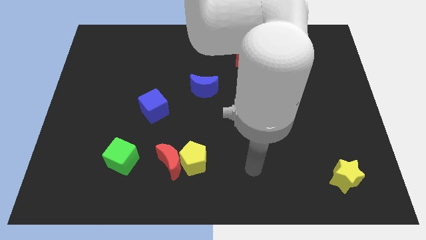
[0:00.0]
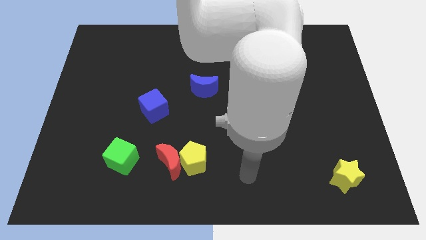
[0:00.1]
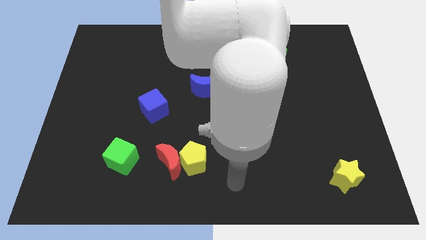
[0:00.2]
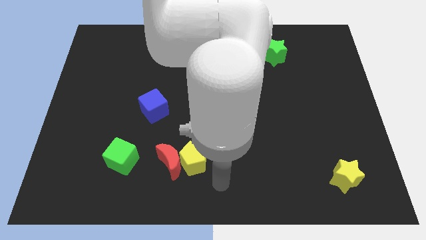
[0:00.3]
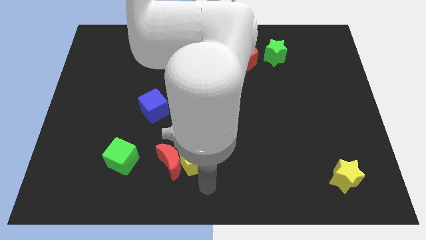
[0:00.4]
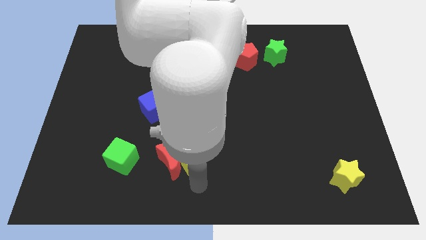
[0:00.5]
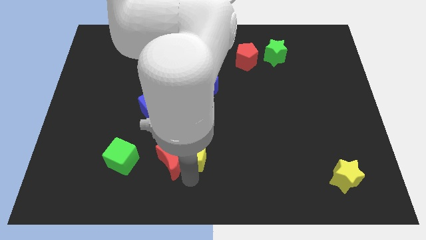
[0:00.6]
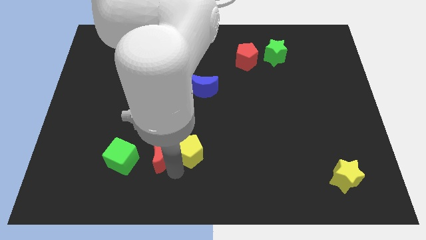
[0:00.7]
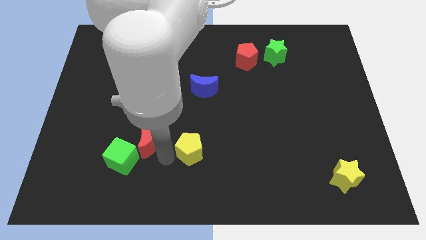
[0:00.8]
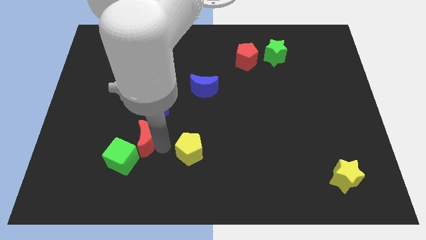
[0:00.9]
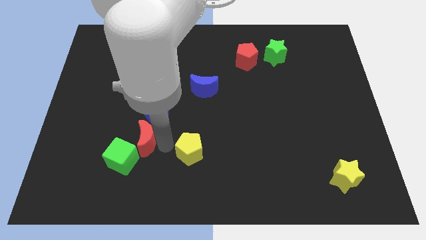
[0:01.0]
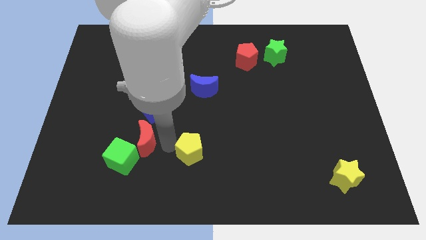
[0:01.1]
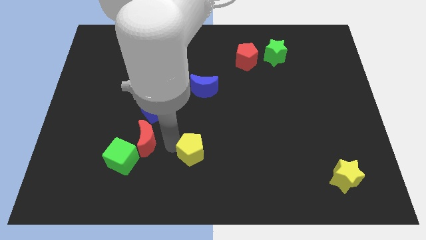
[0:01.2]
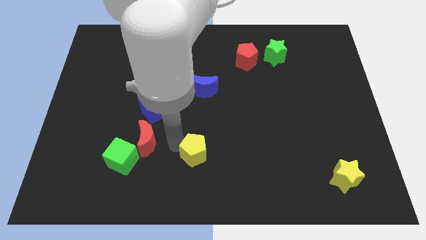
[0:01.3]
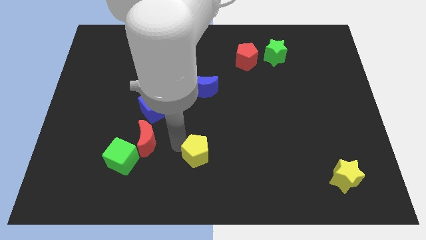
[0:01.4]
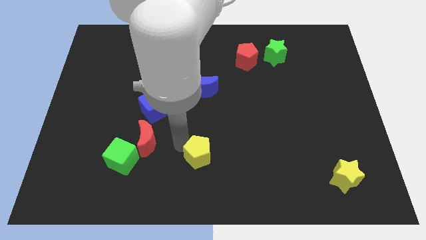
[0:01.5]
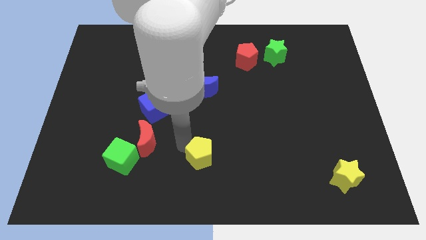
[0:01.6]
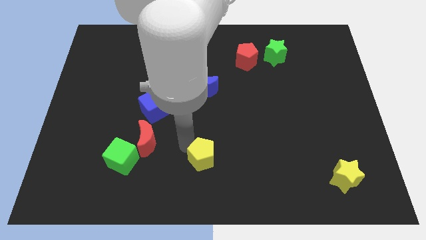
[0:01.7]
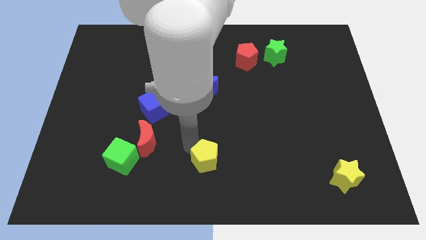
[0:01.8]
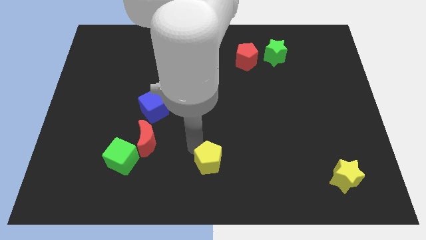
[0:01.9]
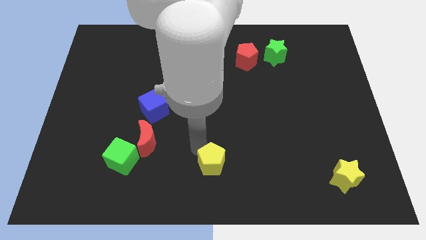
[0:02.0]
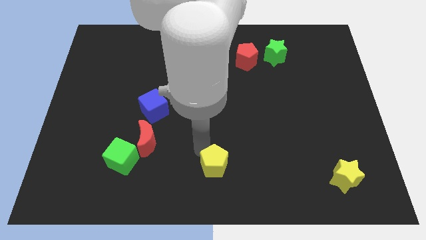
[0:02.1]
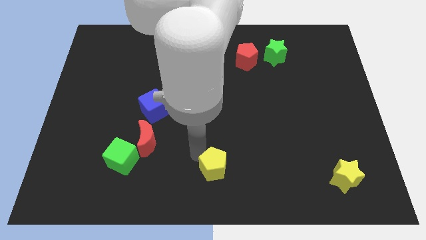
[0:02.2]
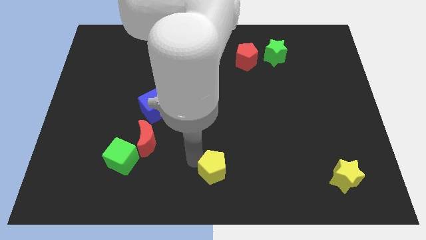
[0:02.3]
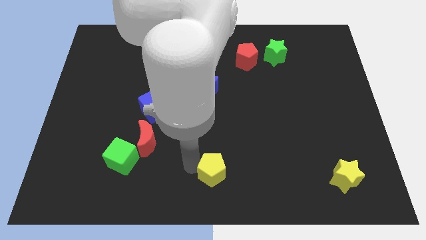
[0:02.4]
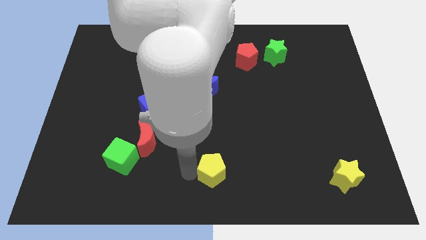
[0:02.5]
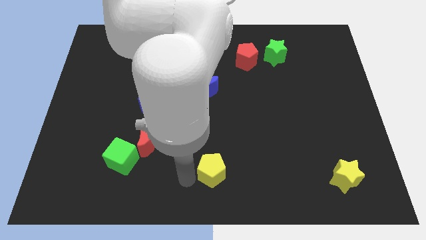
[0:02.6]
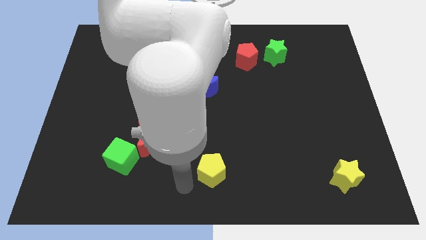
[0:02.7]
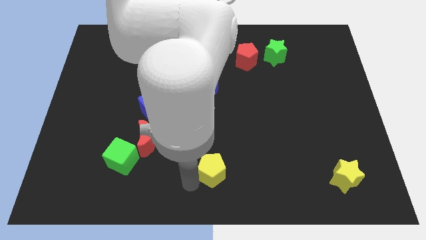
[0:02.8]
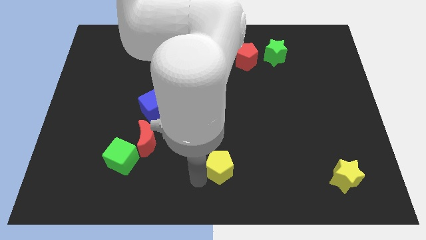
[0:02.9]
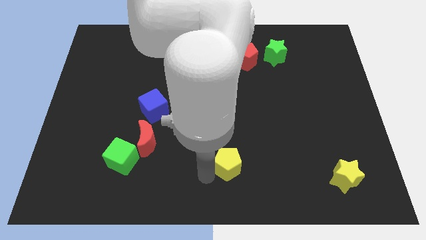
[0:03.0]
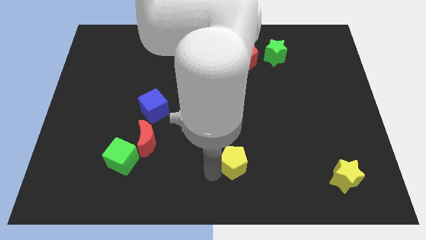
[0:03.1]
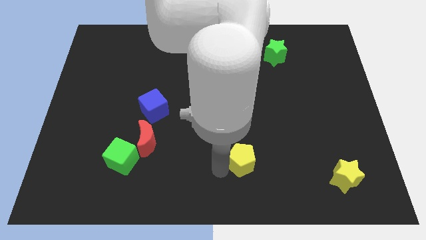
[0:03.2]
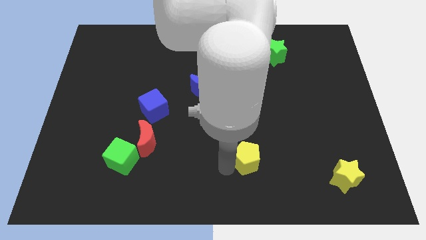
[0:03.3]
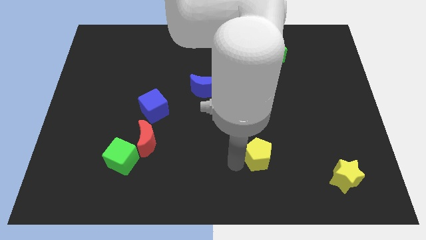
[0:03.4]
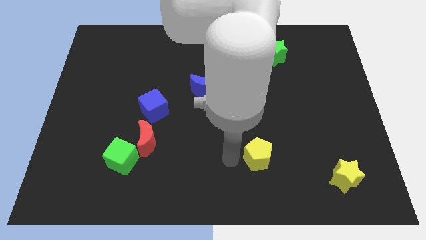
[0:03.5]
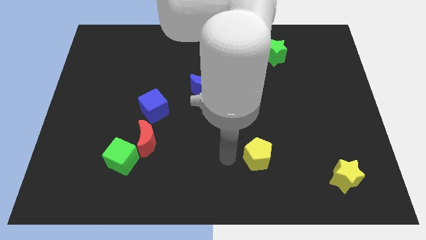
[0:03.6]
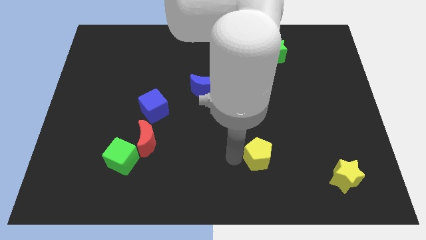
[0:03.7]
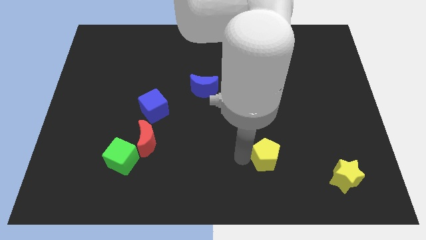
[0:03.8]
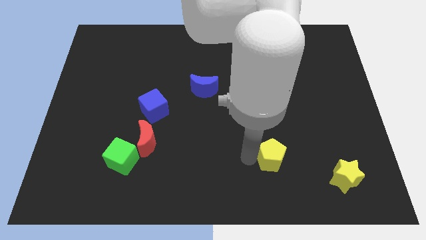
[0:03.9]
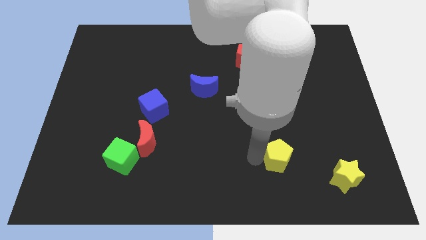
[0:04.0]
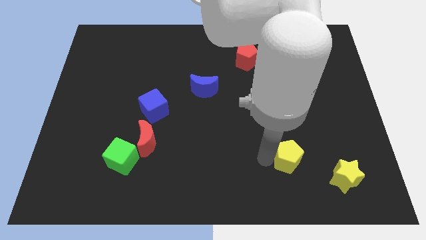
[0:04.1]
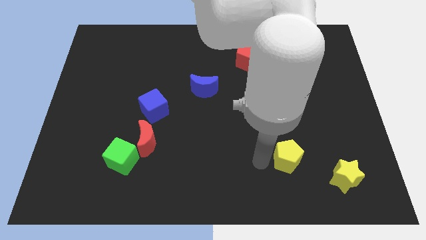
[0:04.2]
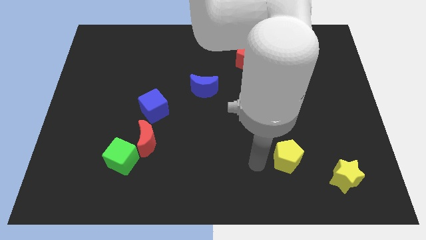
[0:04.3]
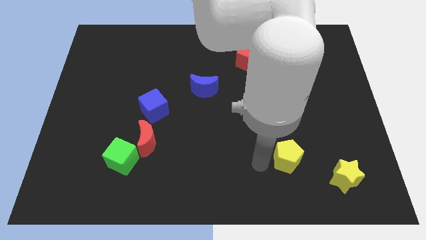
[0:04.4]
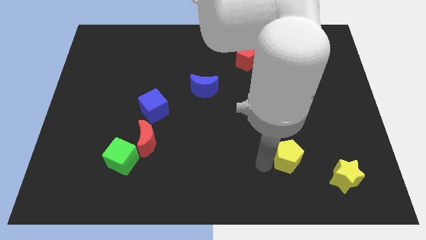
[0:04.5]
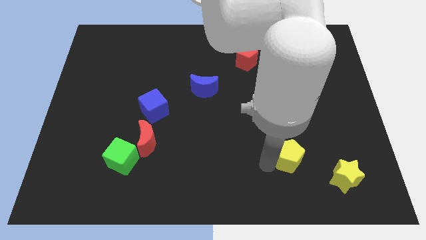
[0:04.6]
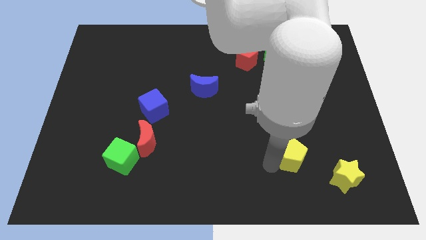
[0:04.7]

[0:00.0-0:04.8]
slide the yellow pentagon to the top left side of the yellow star

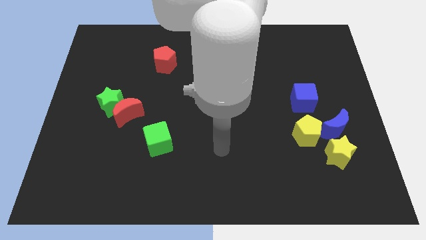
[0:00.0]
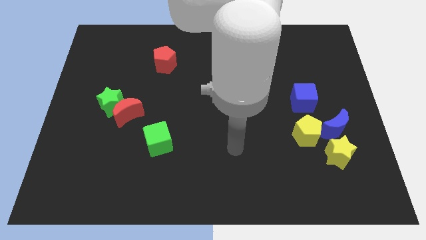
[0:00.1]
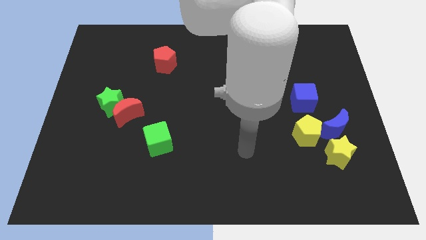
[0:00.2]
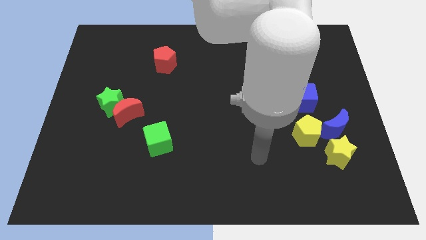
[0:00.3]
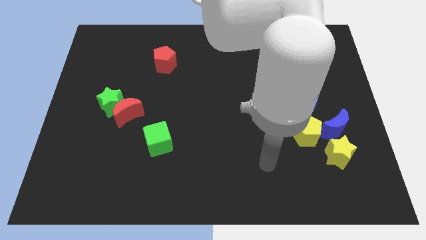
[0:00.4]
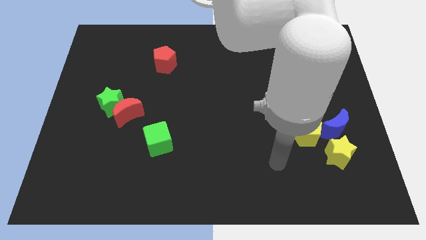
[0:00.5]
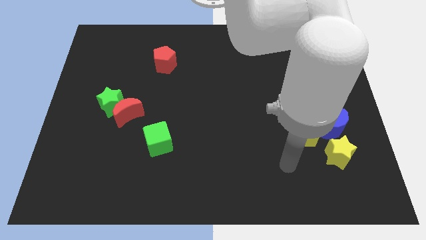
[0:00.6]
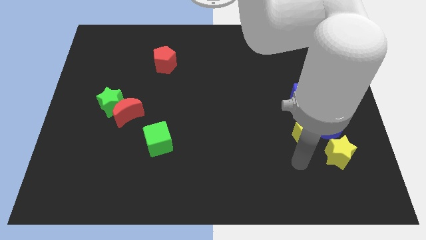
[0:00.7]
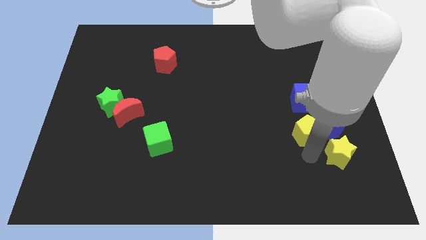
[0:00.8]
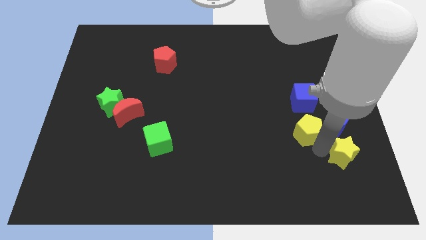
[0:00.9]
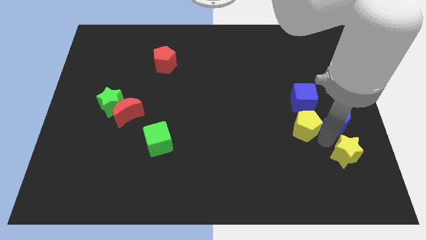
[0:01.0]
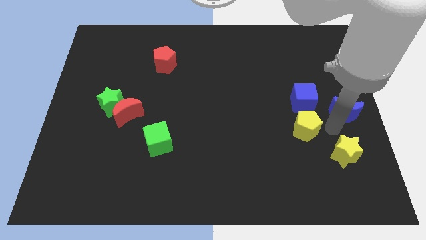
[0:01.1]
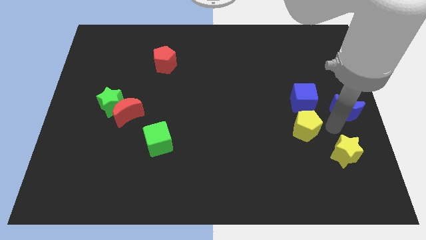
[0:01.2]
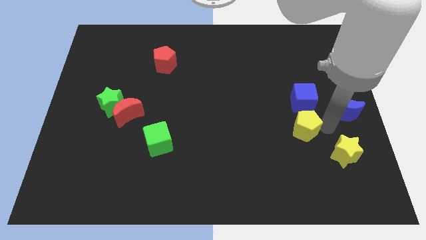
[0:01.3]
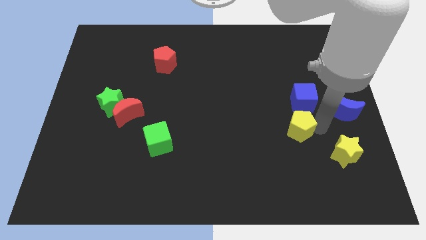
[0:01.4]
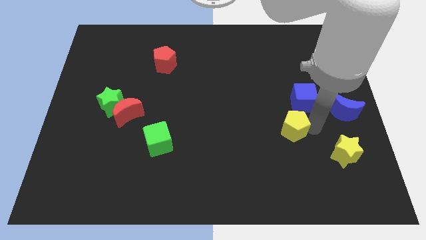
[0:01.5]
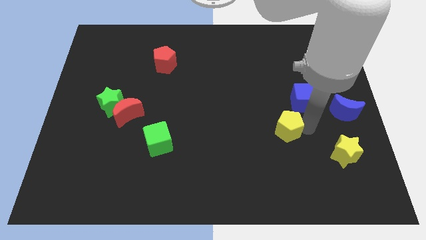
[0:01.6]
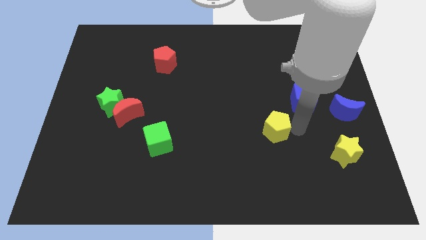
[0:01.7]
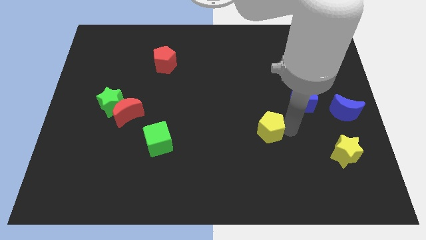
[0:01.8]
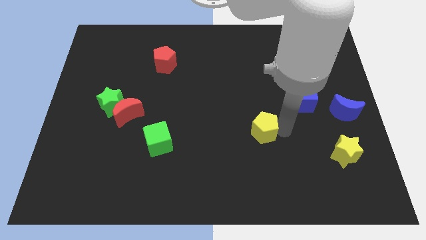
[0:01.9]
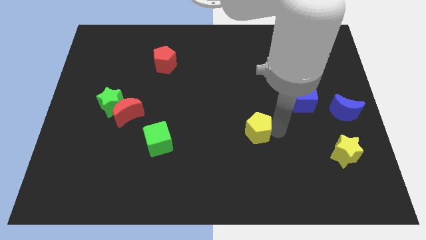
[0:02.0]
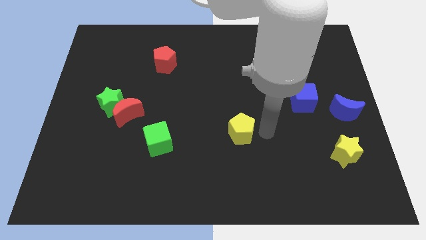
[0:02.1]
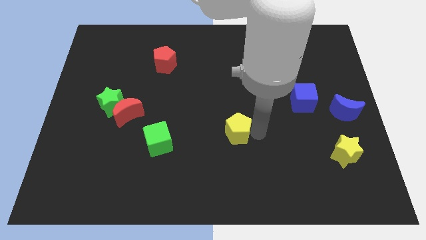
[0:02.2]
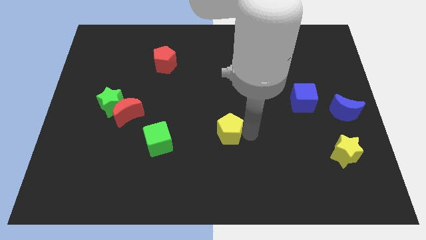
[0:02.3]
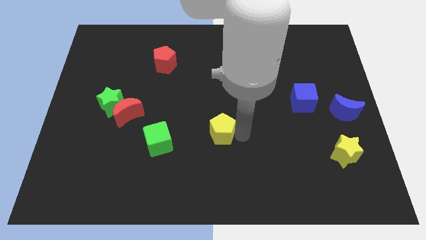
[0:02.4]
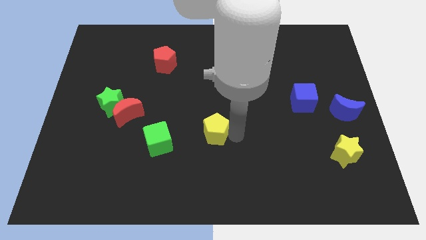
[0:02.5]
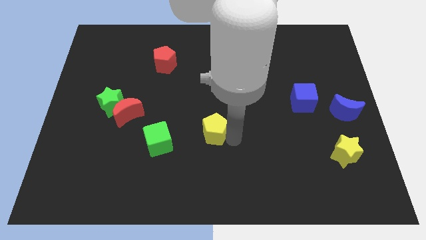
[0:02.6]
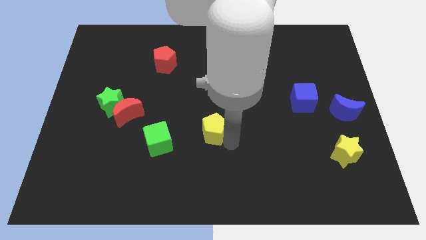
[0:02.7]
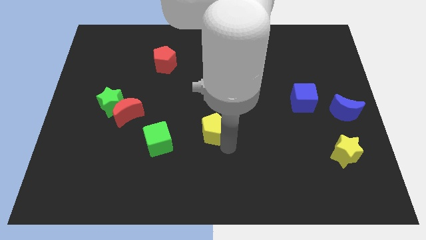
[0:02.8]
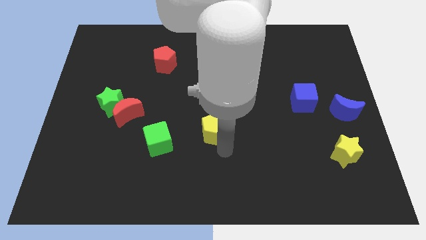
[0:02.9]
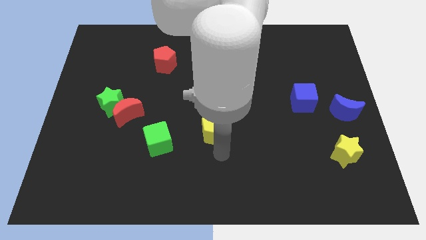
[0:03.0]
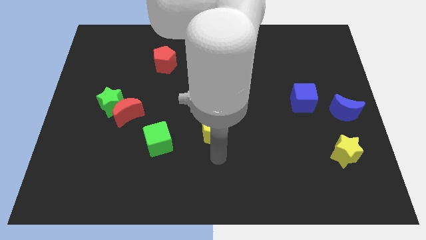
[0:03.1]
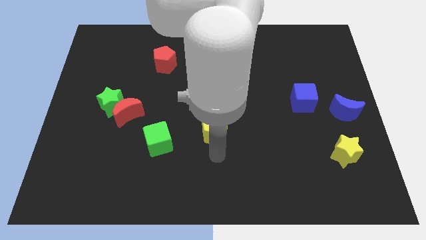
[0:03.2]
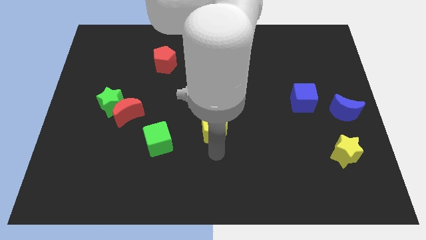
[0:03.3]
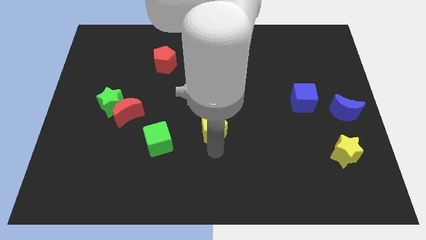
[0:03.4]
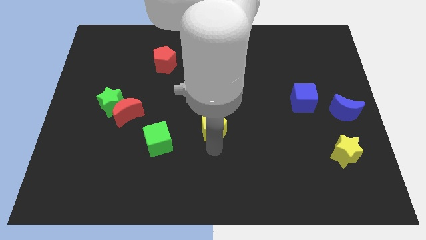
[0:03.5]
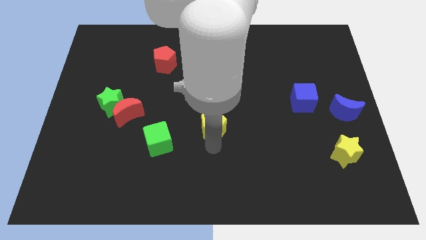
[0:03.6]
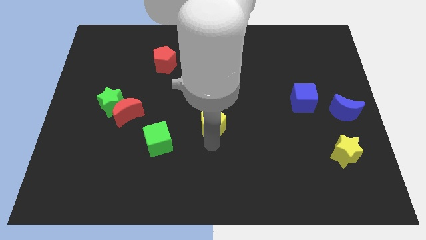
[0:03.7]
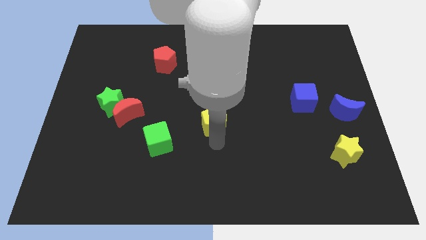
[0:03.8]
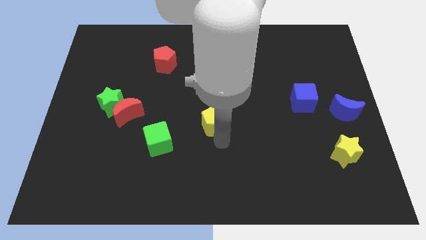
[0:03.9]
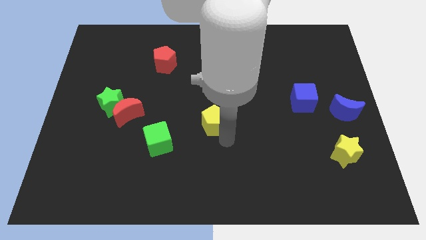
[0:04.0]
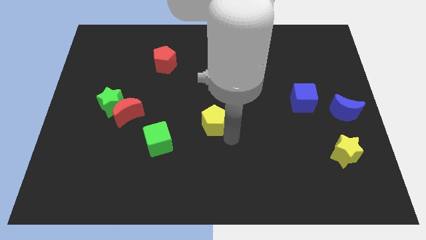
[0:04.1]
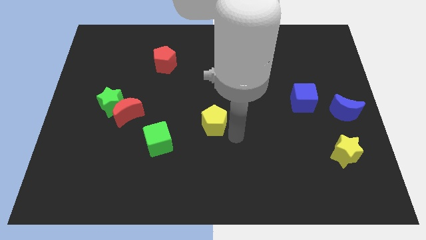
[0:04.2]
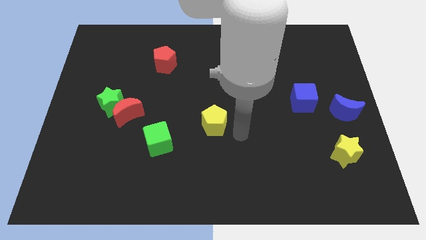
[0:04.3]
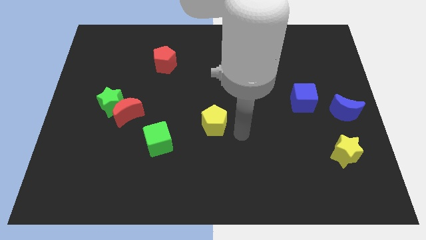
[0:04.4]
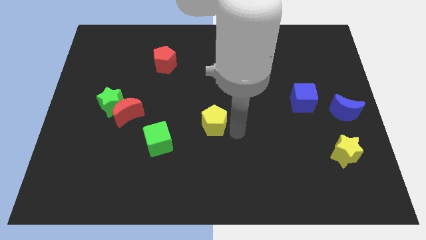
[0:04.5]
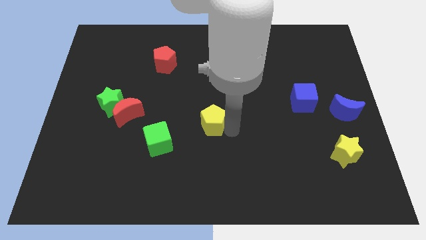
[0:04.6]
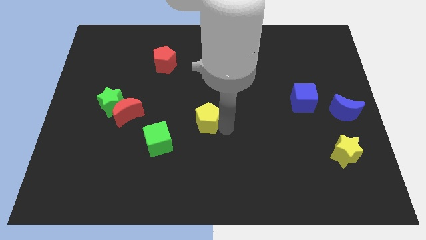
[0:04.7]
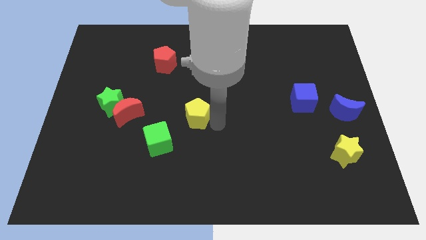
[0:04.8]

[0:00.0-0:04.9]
move the yellow pentagon just right of the red moon
